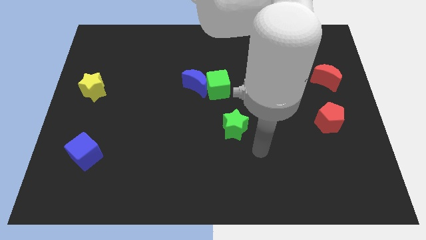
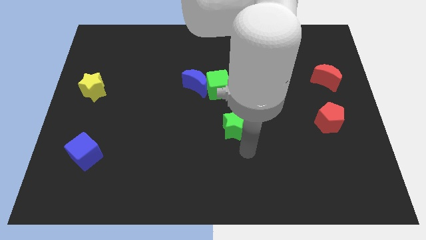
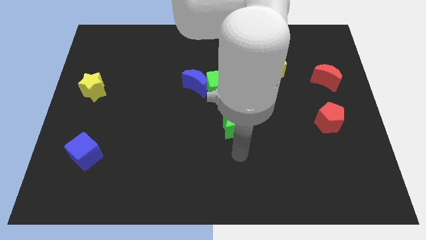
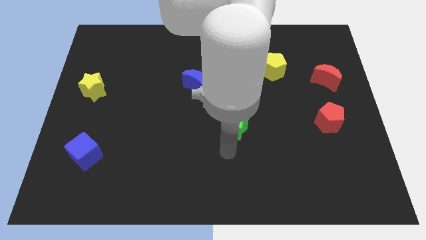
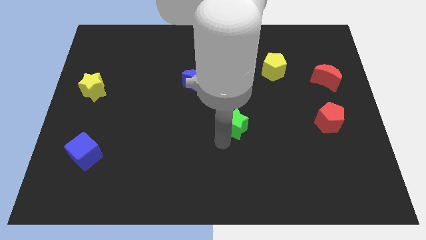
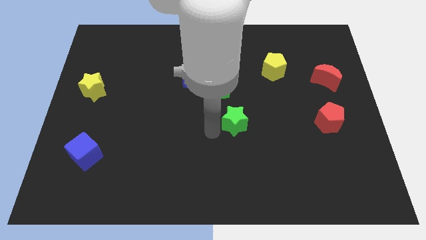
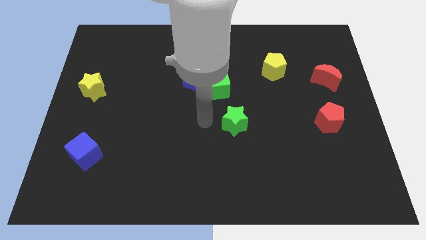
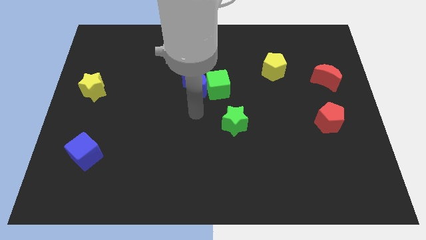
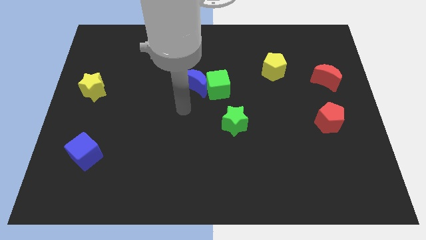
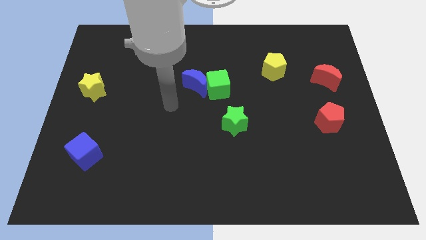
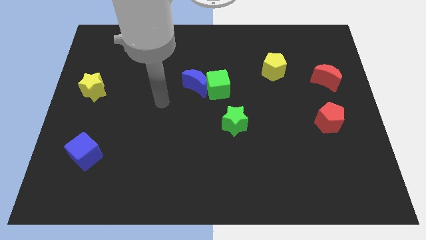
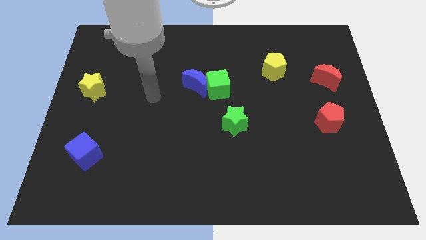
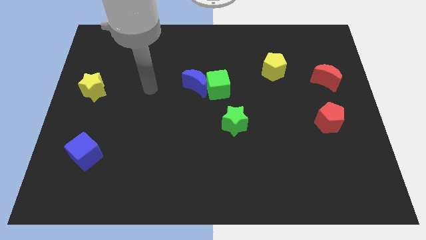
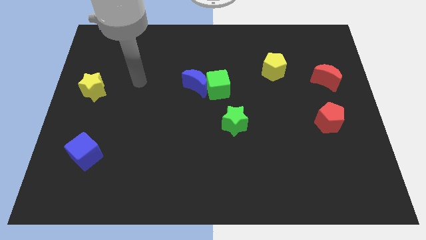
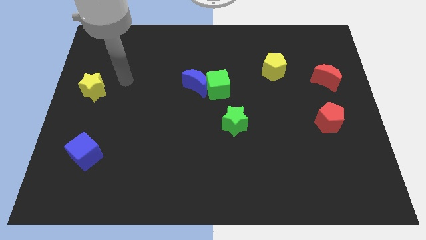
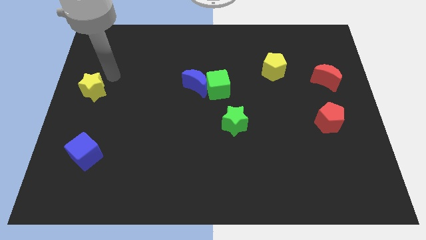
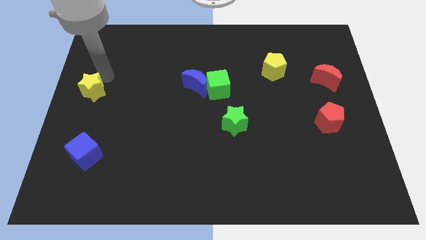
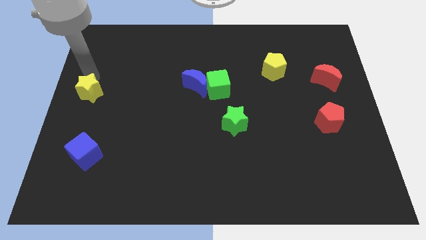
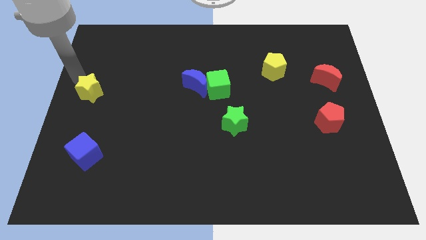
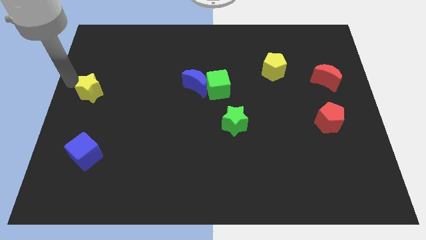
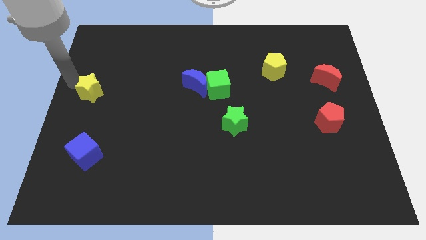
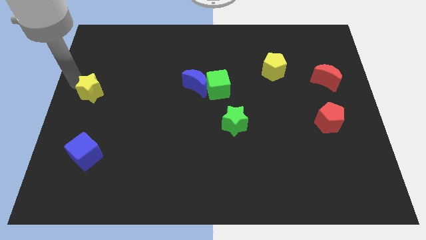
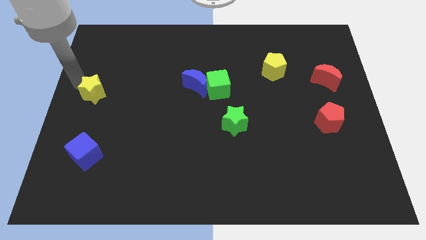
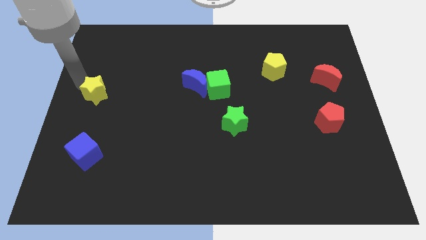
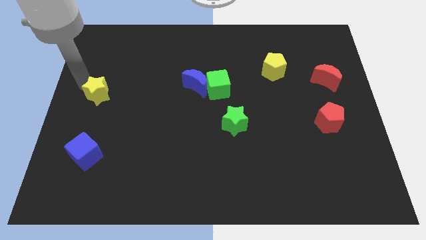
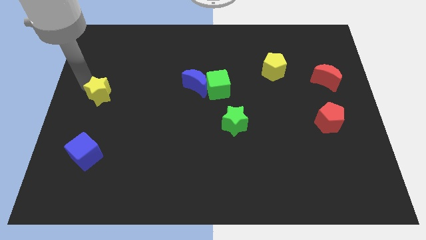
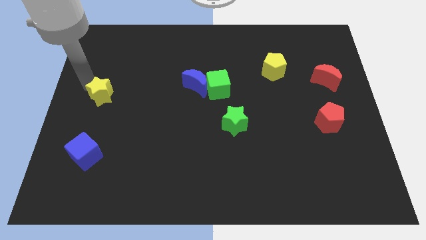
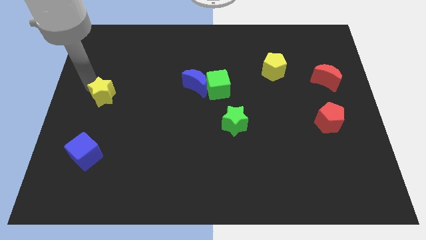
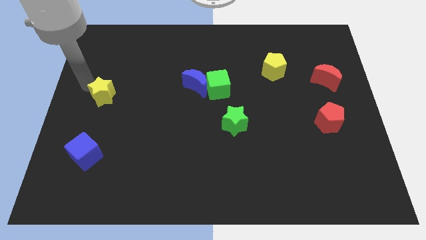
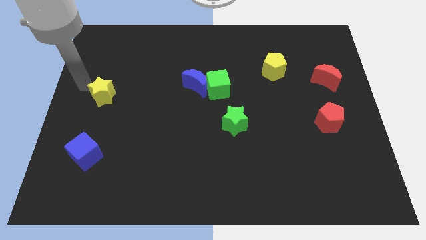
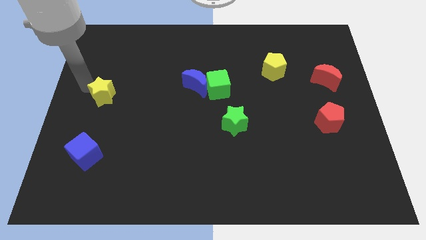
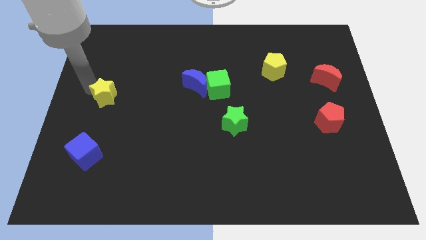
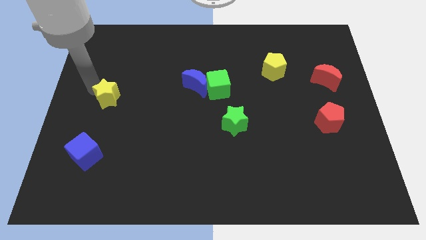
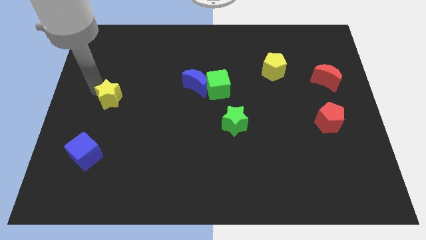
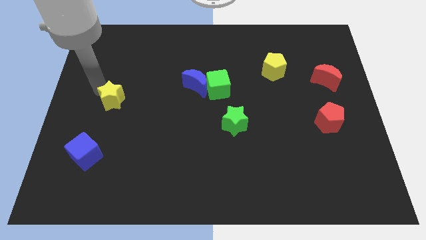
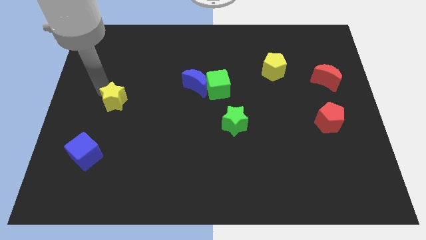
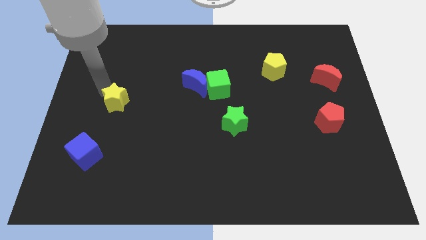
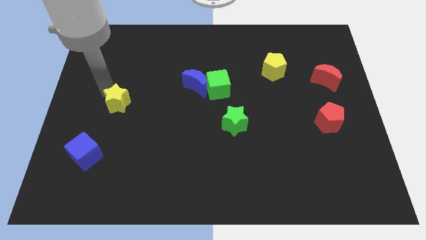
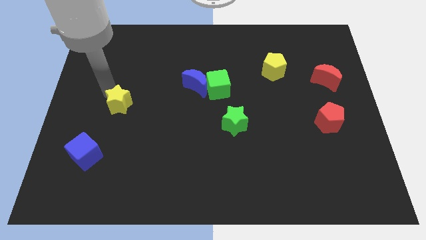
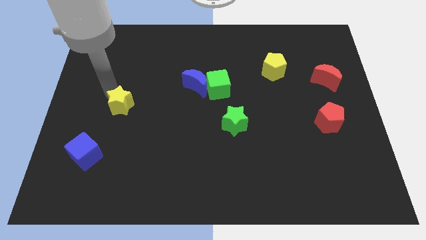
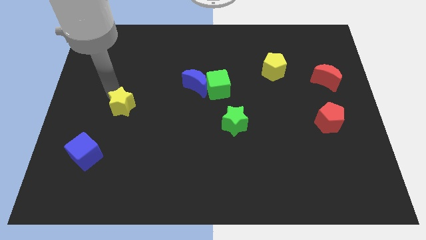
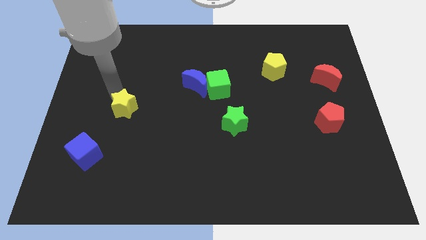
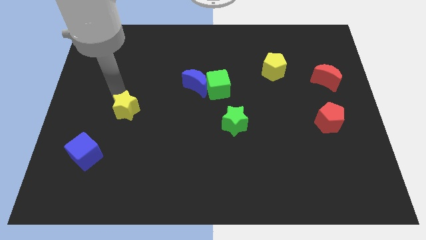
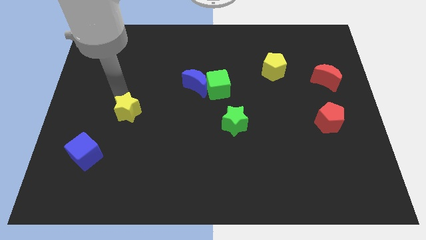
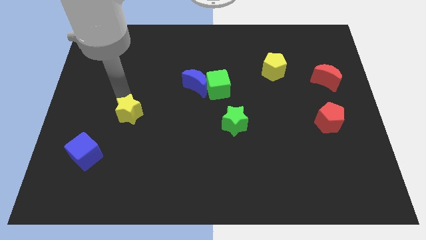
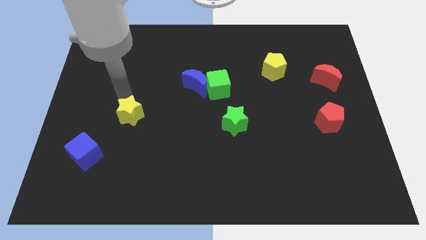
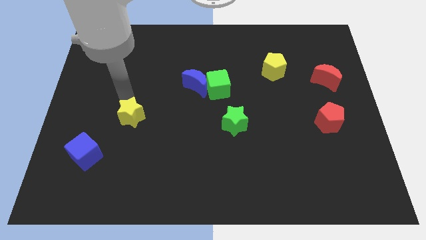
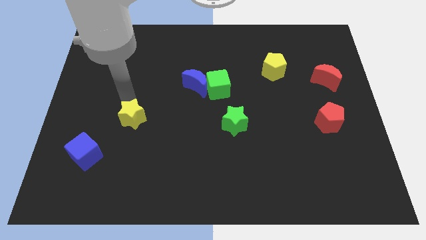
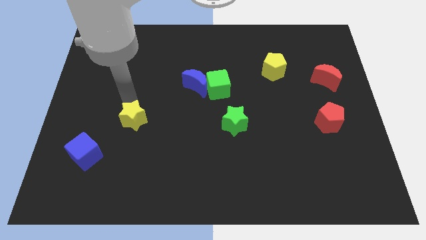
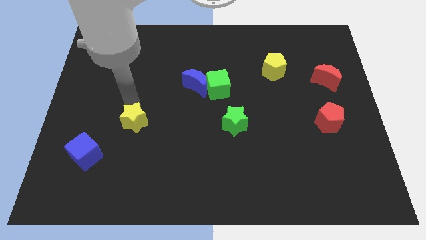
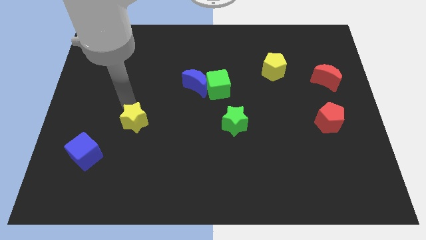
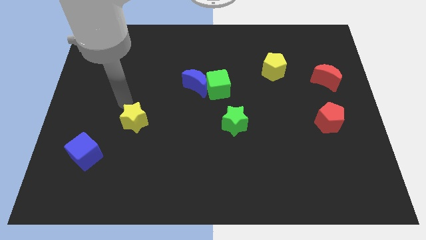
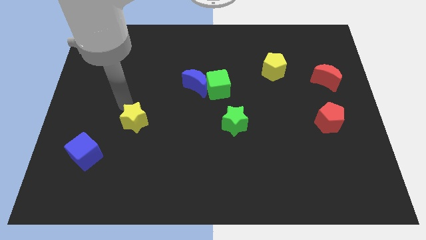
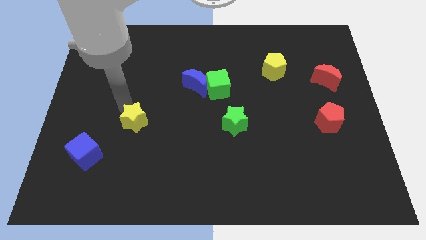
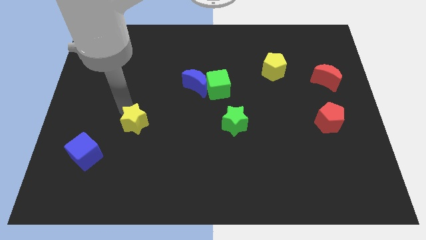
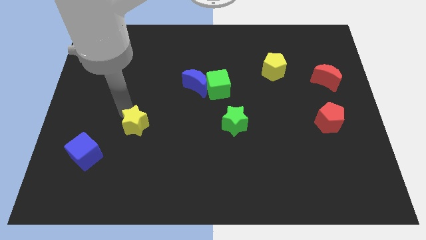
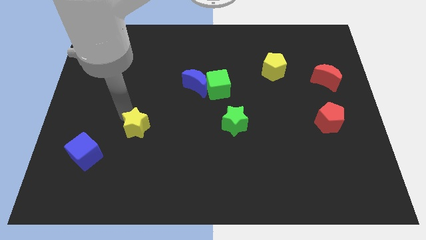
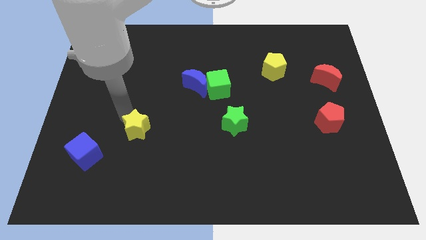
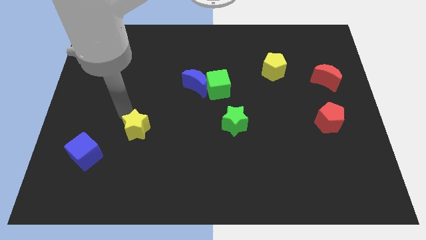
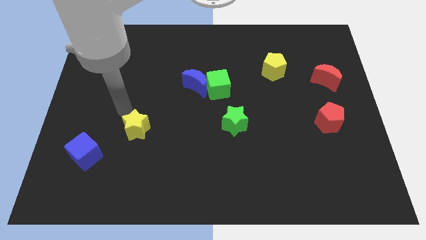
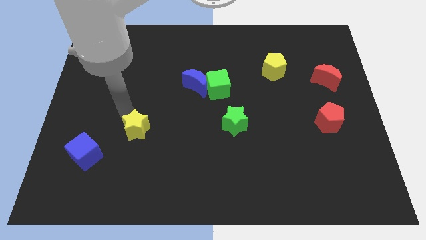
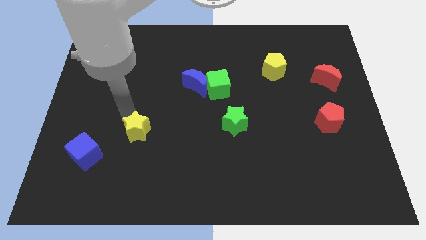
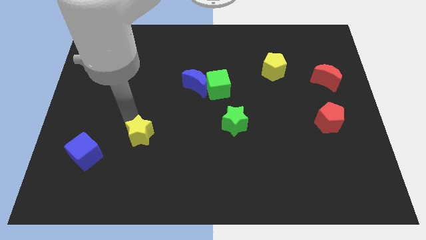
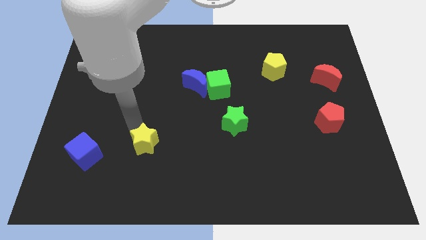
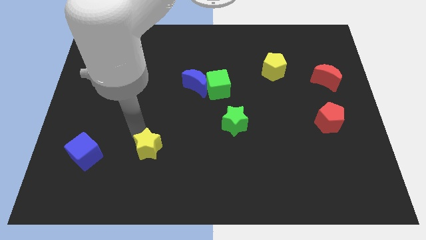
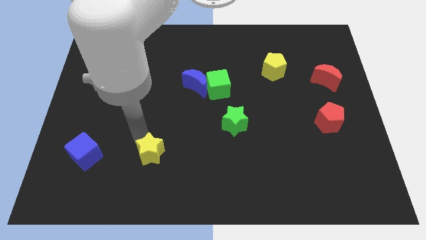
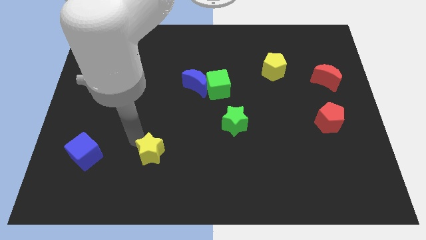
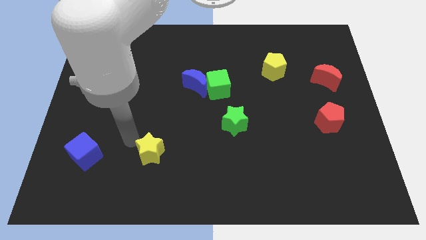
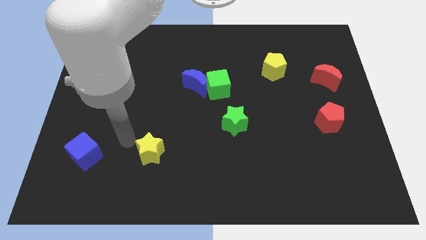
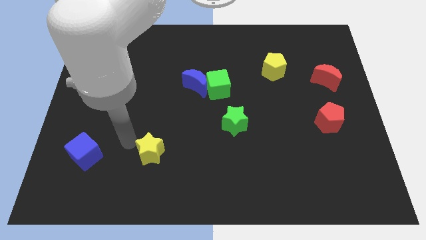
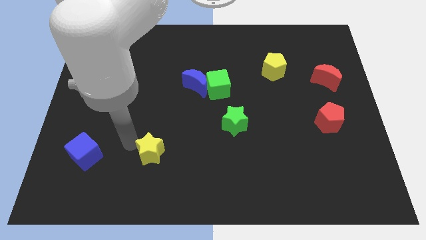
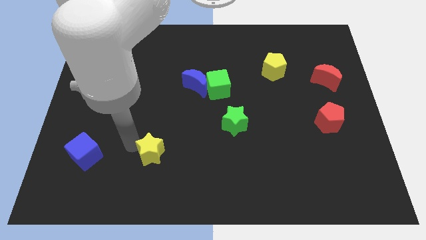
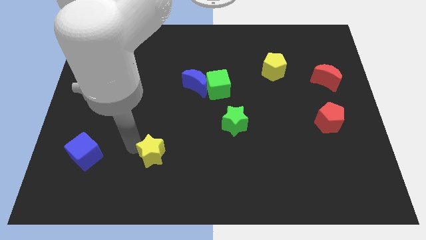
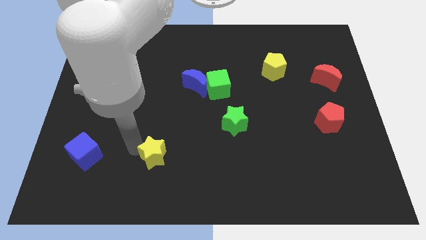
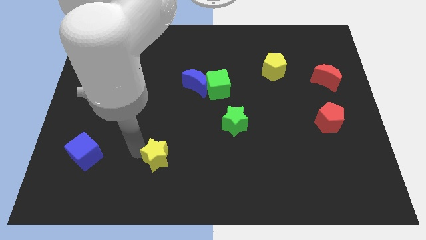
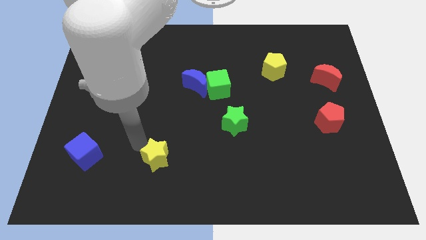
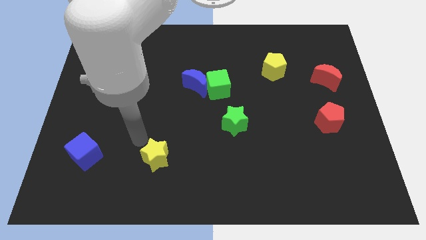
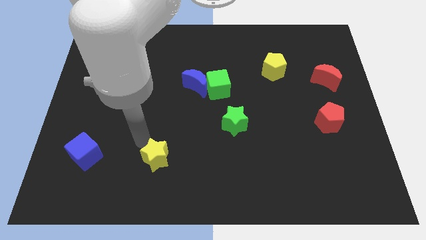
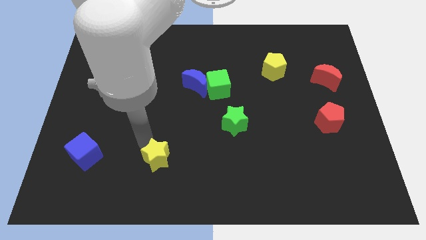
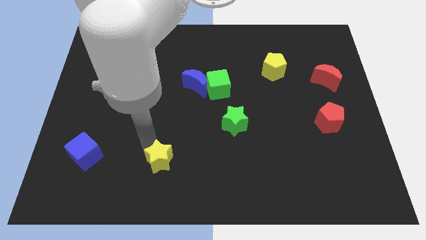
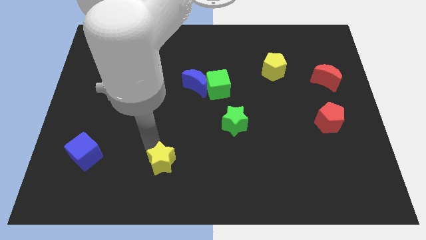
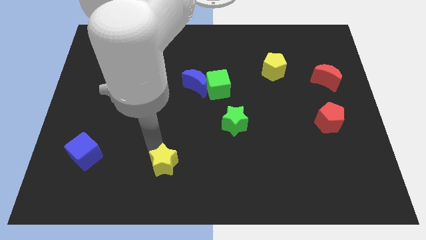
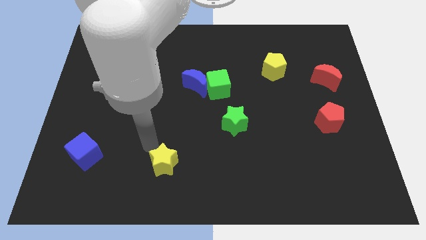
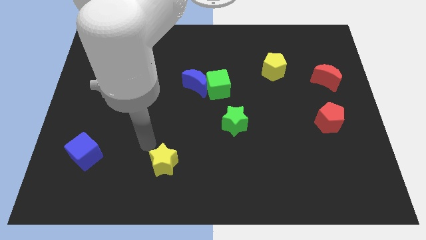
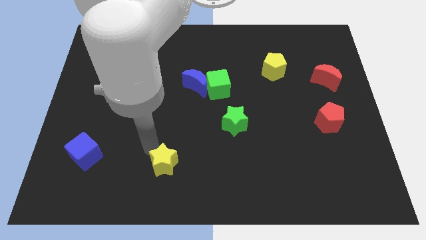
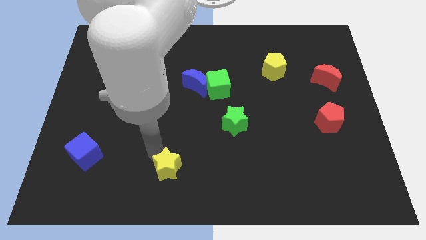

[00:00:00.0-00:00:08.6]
move the yellow star to the bottom side
